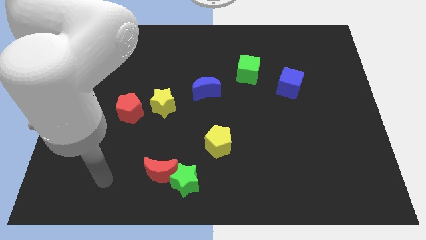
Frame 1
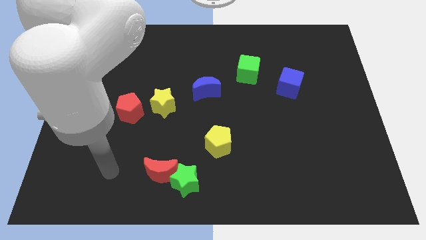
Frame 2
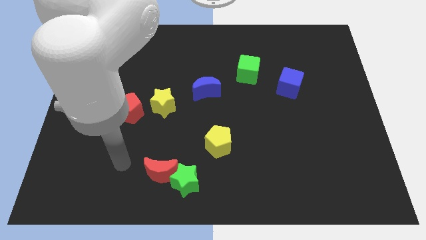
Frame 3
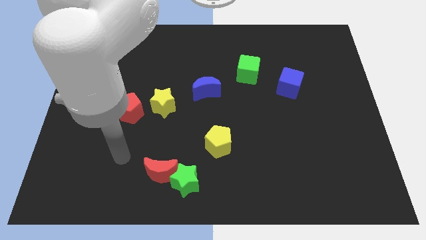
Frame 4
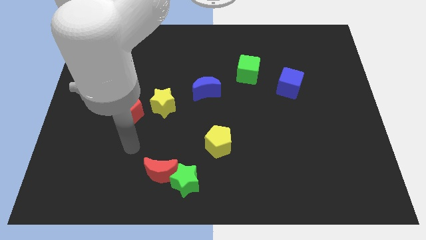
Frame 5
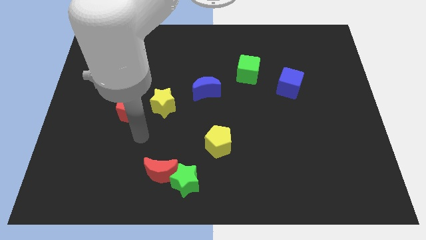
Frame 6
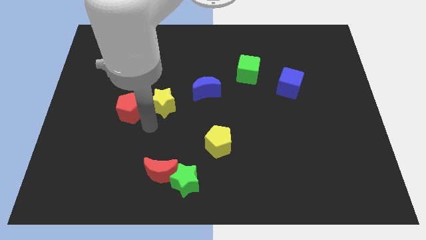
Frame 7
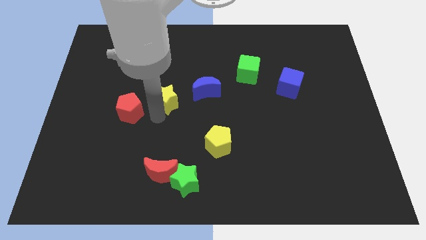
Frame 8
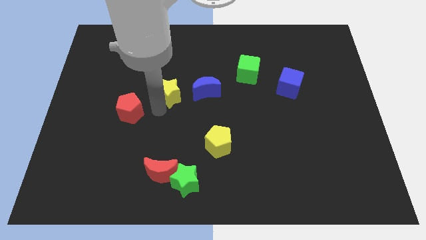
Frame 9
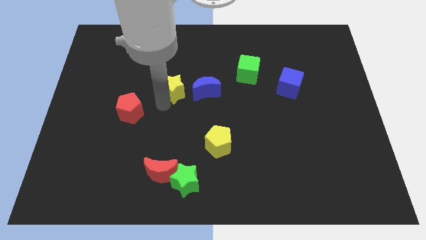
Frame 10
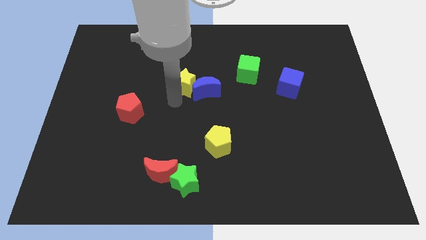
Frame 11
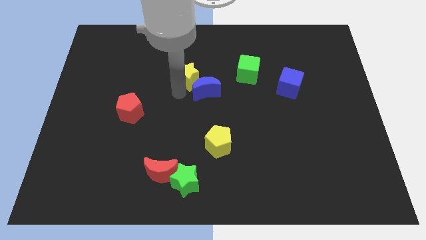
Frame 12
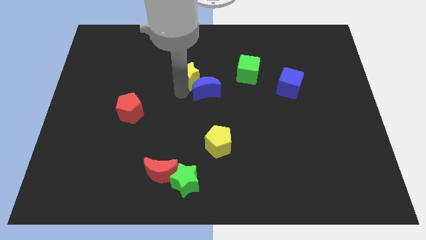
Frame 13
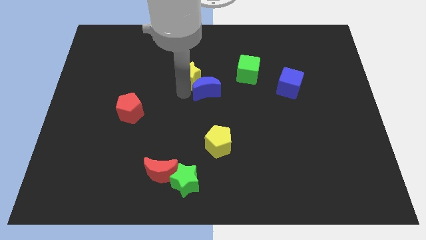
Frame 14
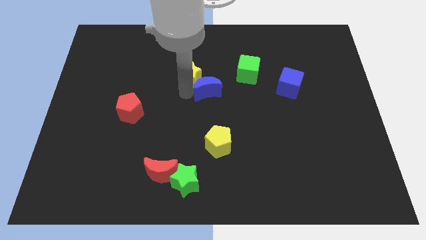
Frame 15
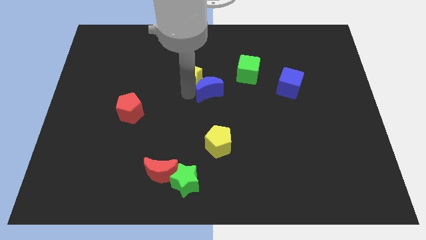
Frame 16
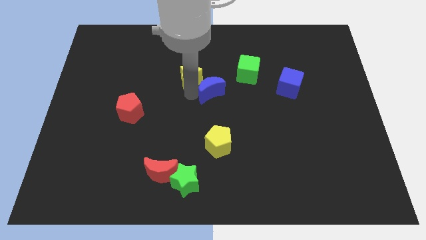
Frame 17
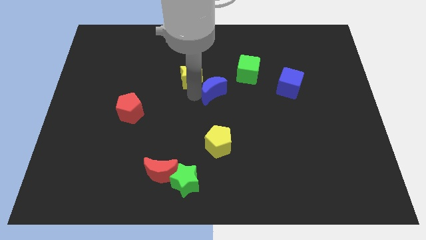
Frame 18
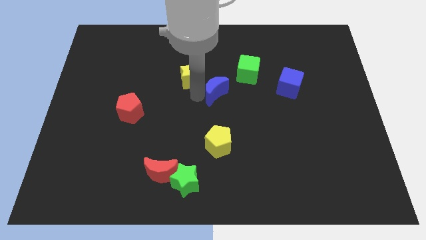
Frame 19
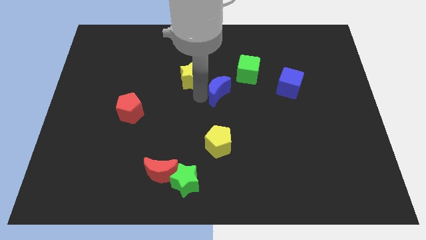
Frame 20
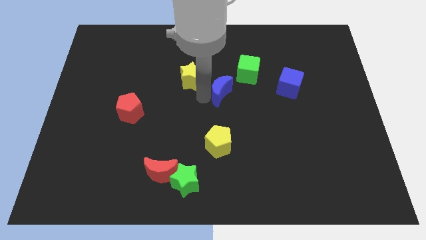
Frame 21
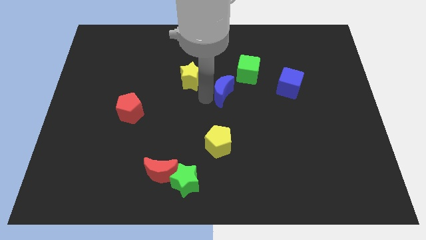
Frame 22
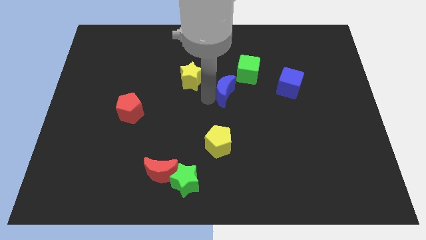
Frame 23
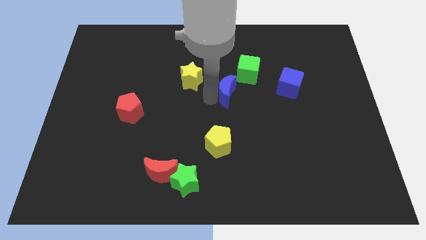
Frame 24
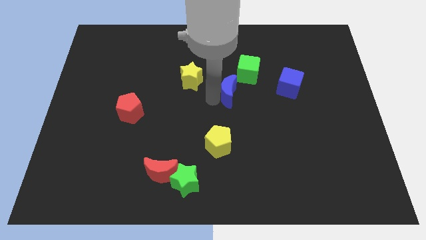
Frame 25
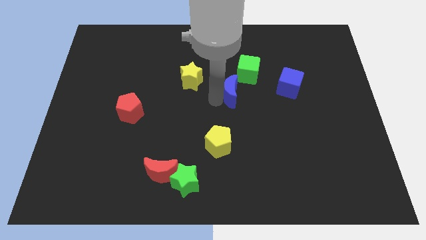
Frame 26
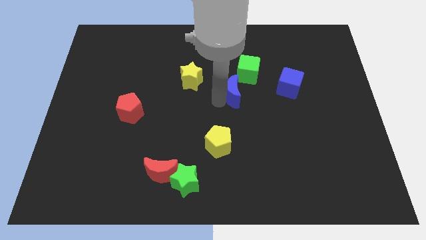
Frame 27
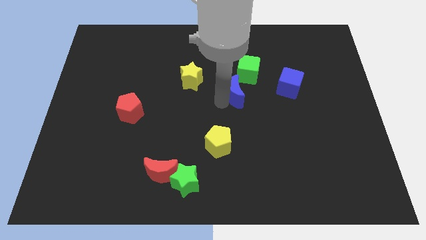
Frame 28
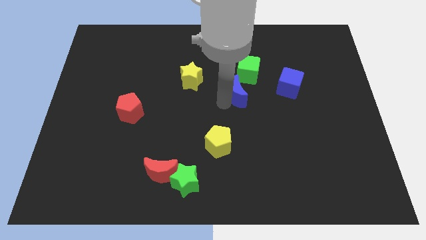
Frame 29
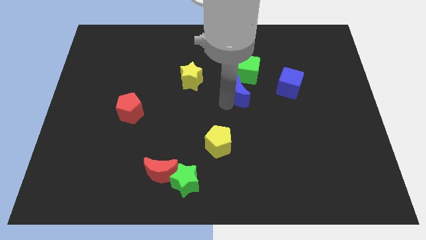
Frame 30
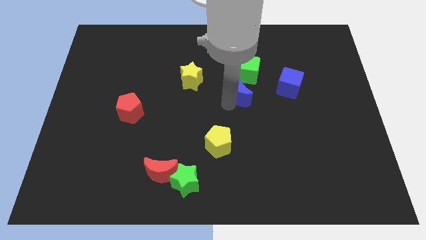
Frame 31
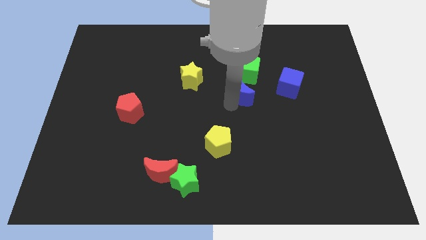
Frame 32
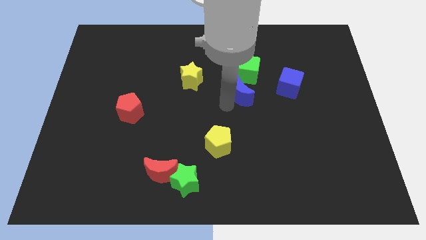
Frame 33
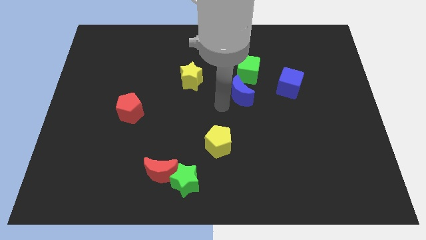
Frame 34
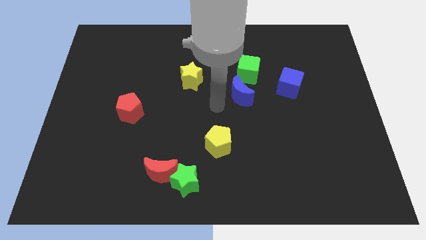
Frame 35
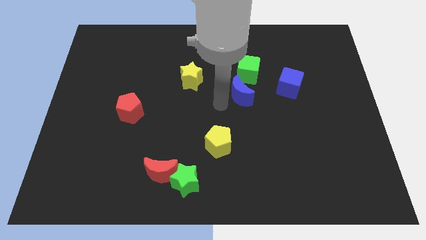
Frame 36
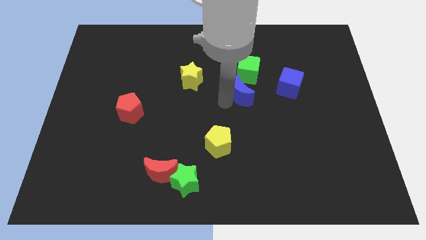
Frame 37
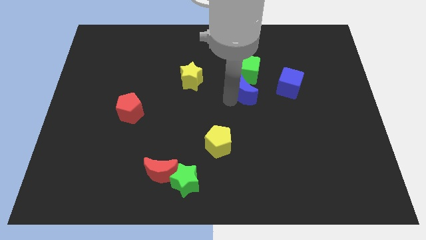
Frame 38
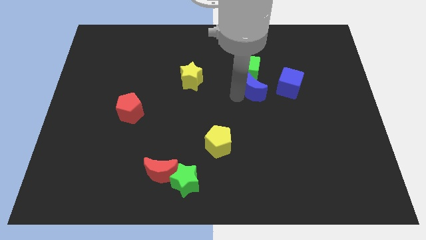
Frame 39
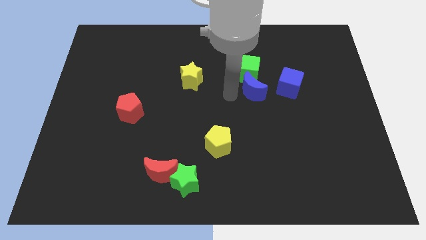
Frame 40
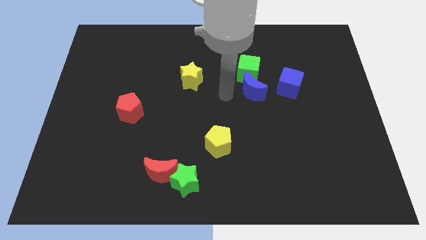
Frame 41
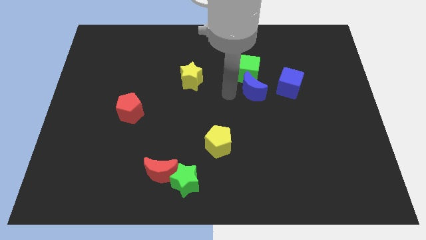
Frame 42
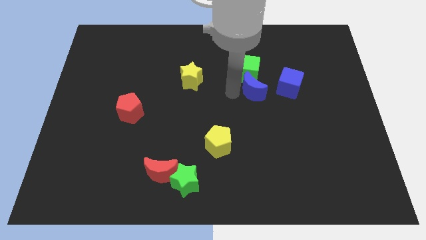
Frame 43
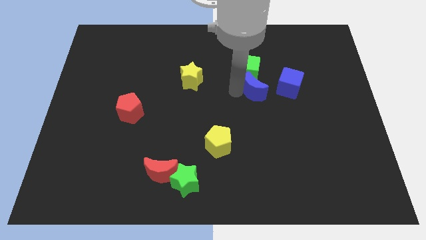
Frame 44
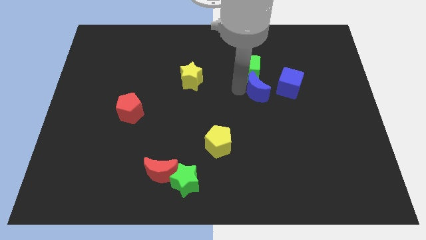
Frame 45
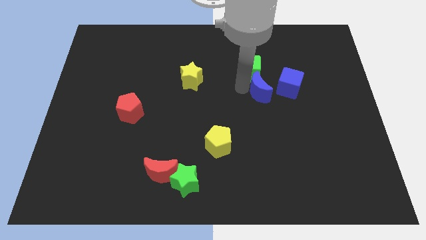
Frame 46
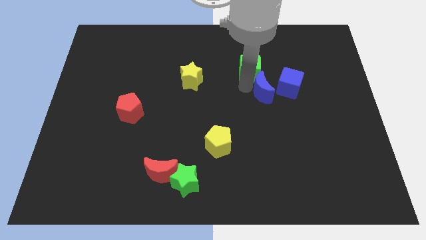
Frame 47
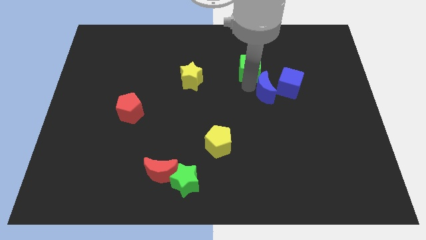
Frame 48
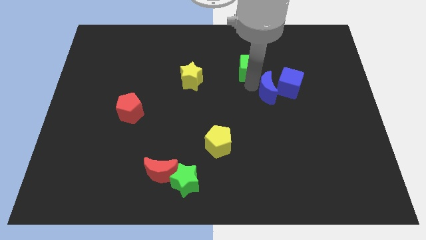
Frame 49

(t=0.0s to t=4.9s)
move the blue moon next to the blue cube

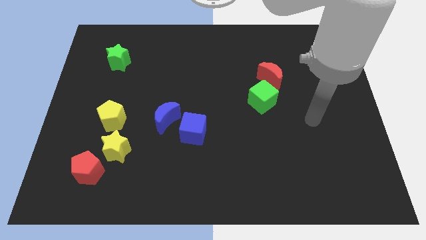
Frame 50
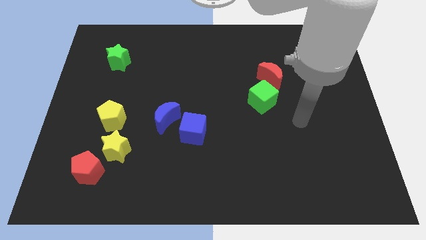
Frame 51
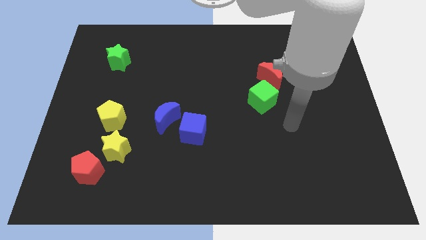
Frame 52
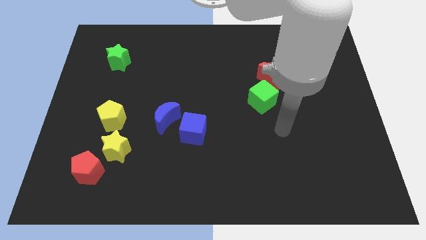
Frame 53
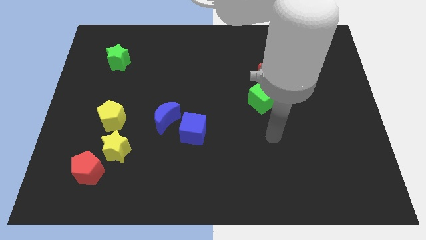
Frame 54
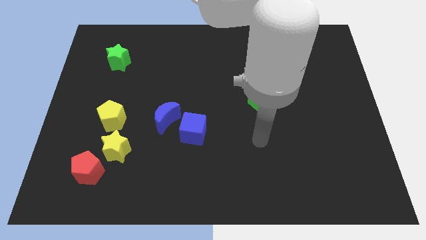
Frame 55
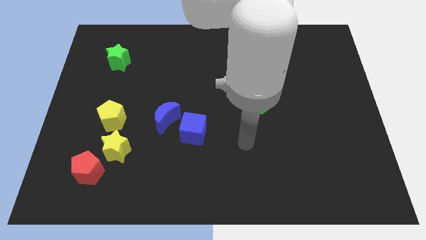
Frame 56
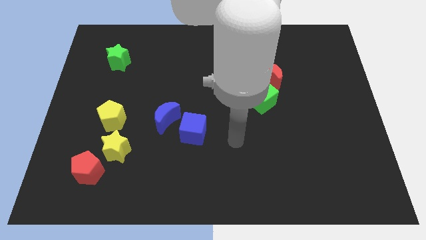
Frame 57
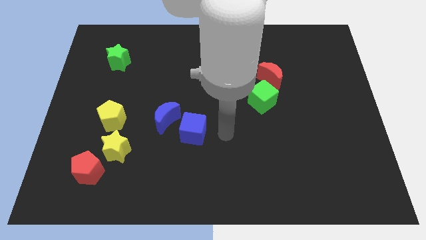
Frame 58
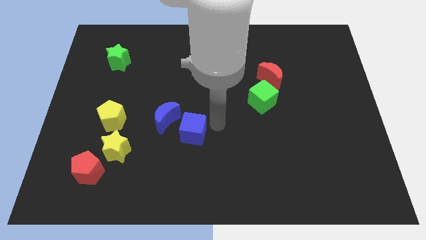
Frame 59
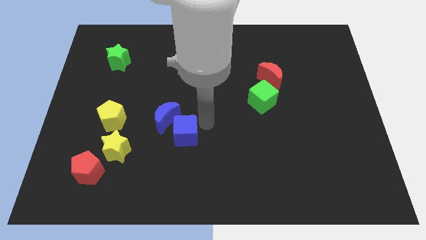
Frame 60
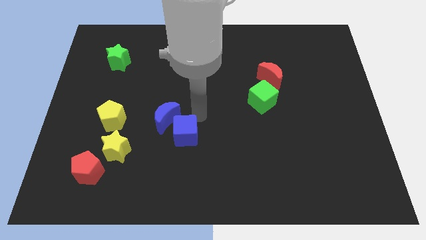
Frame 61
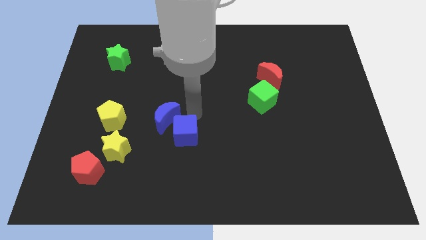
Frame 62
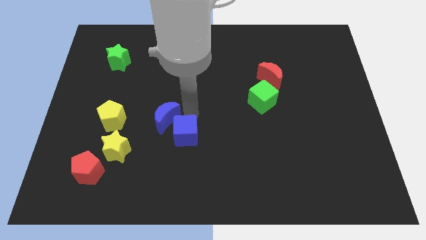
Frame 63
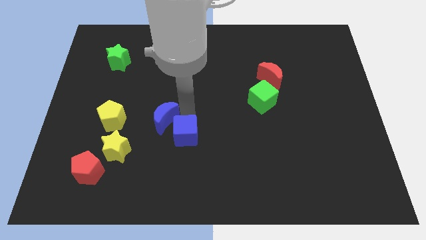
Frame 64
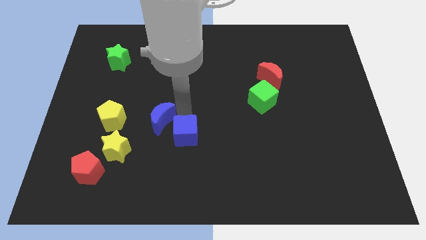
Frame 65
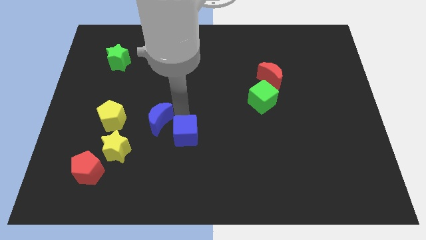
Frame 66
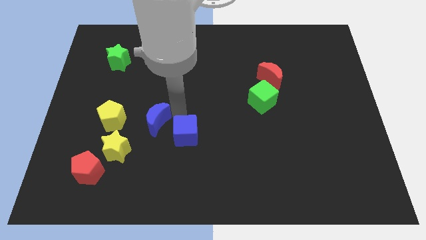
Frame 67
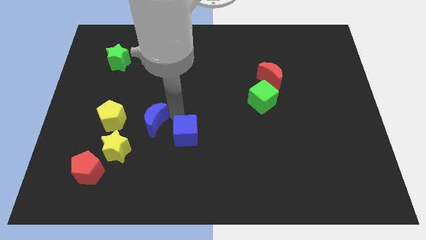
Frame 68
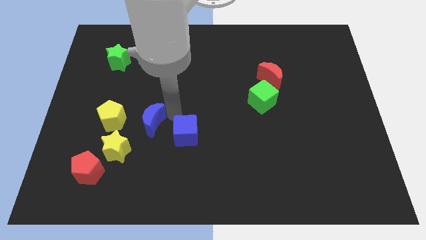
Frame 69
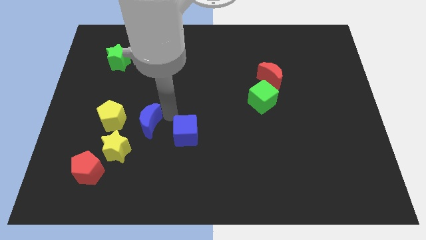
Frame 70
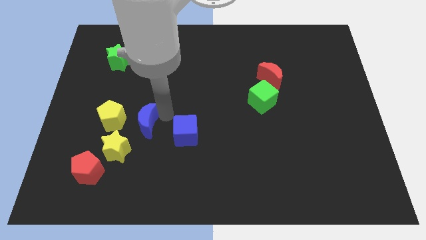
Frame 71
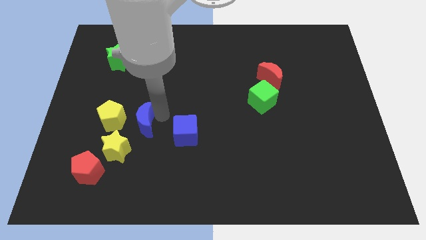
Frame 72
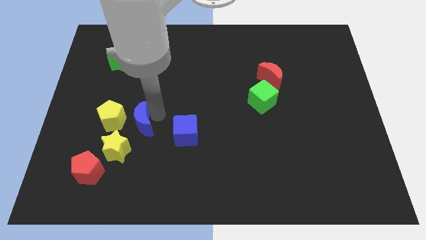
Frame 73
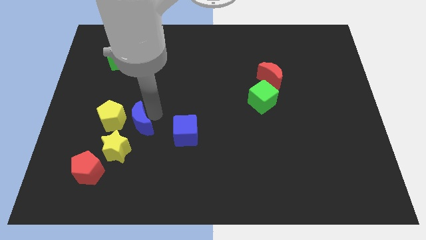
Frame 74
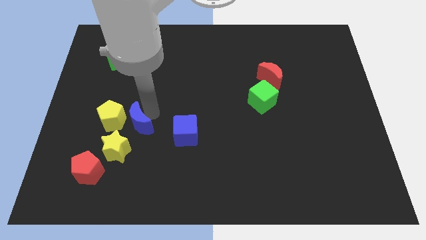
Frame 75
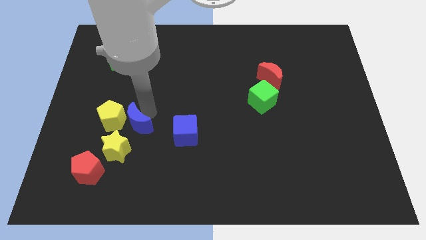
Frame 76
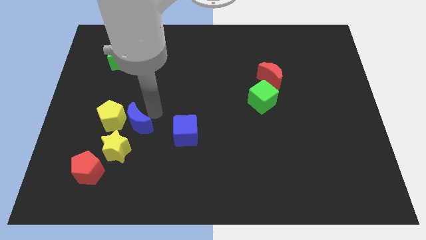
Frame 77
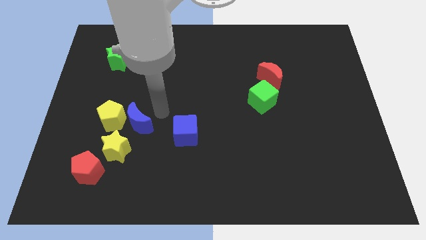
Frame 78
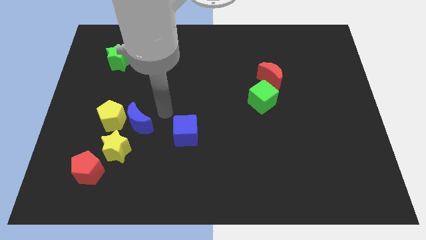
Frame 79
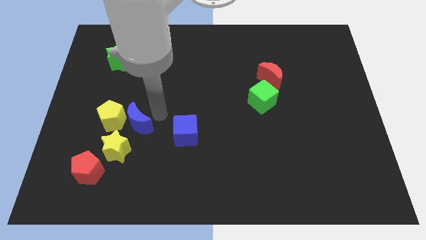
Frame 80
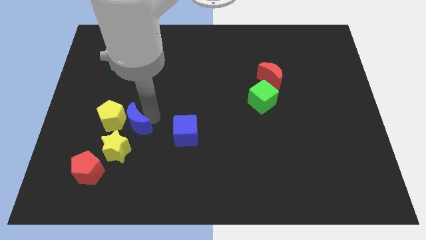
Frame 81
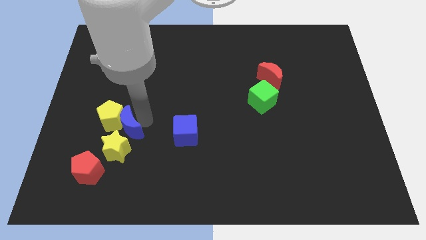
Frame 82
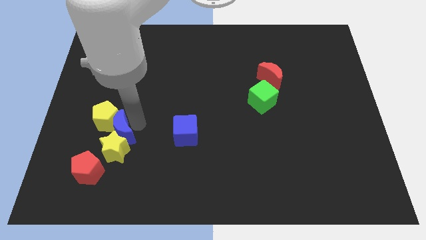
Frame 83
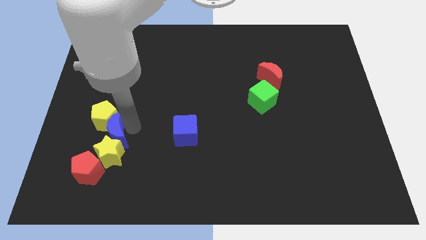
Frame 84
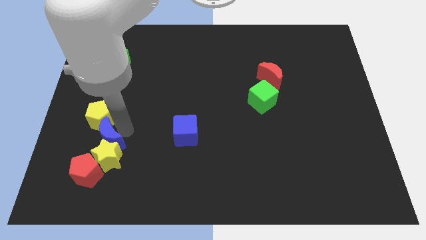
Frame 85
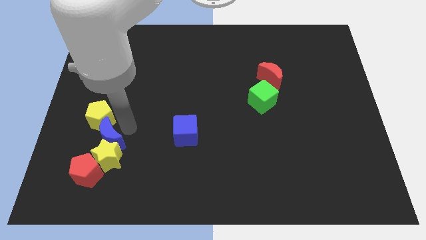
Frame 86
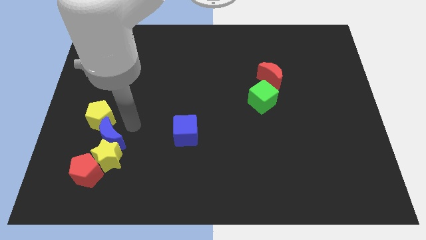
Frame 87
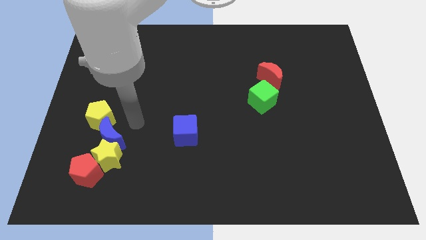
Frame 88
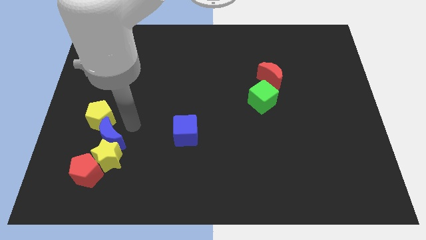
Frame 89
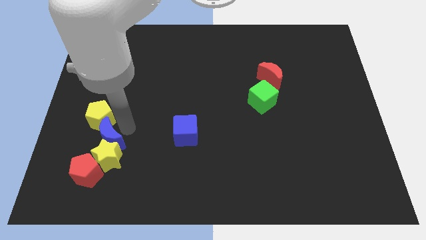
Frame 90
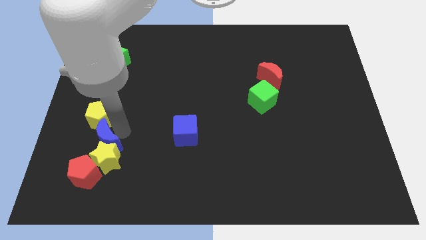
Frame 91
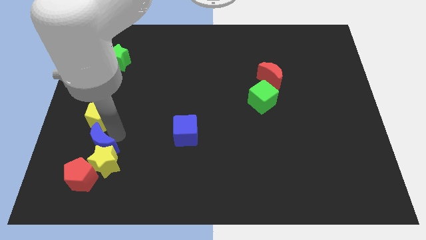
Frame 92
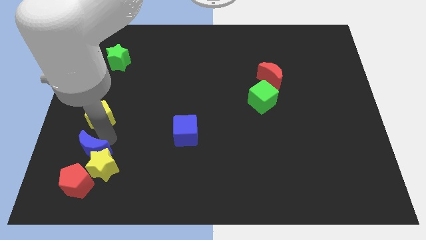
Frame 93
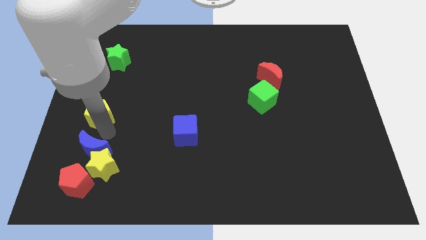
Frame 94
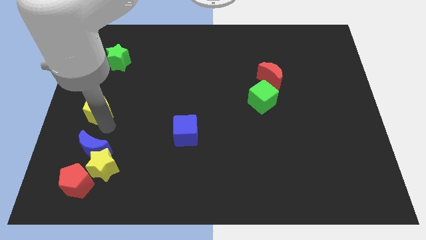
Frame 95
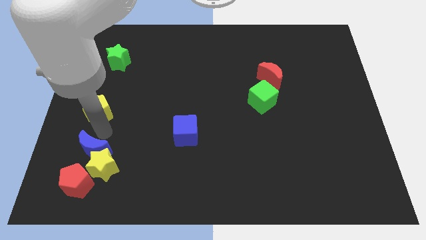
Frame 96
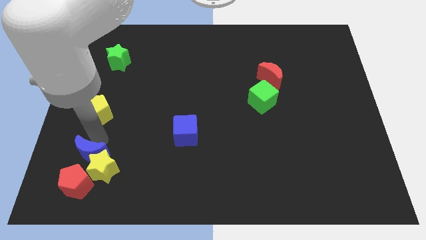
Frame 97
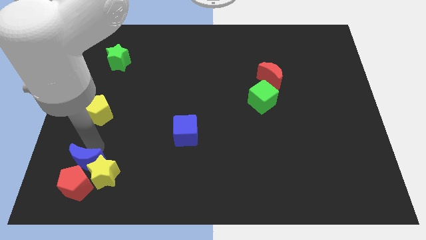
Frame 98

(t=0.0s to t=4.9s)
move the blue moon next to the red pentagon
